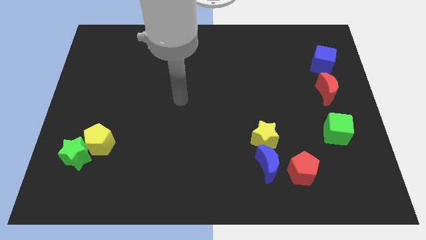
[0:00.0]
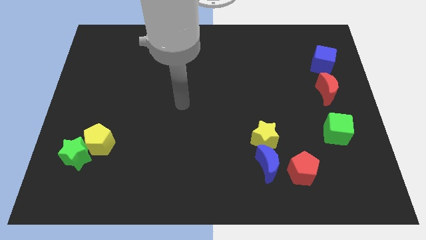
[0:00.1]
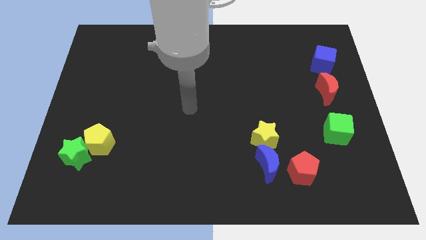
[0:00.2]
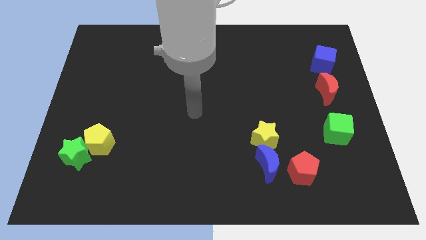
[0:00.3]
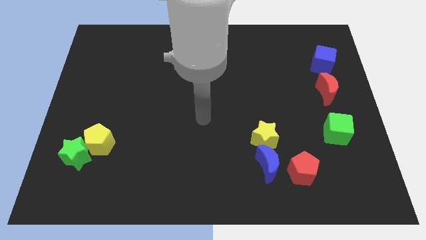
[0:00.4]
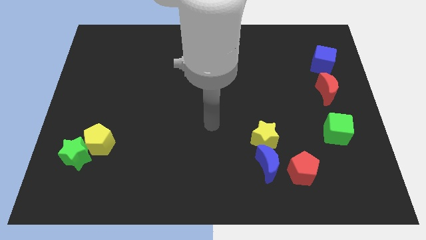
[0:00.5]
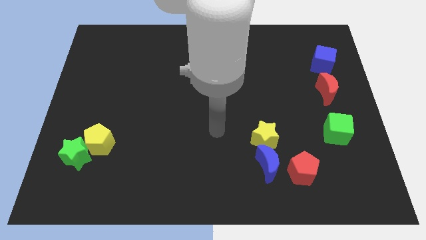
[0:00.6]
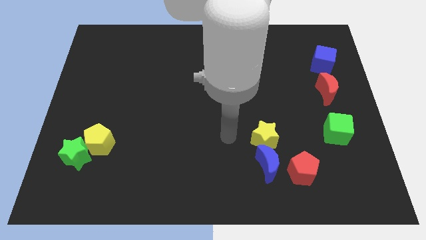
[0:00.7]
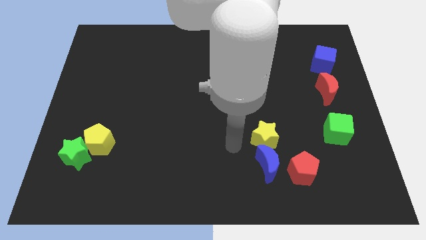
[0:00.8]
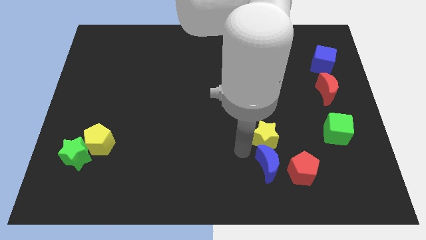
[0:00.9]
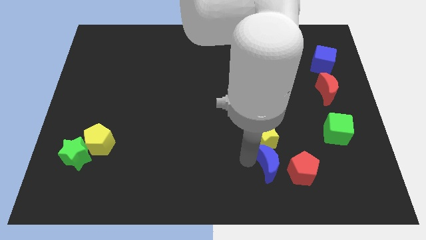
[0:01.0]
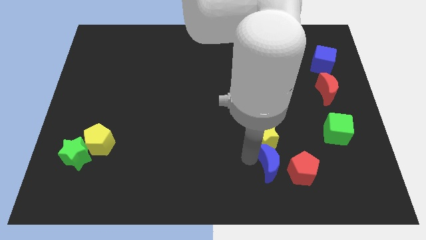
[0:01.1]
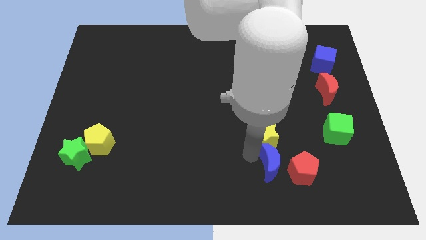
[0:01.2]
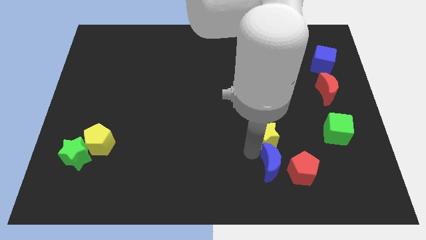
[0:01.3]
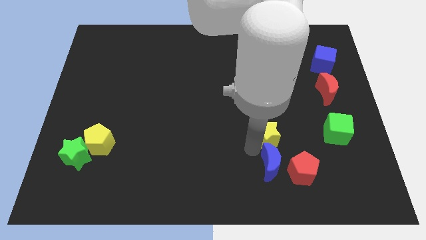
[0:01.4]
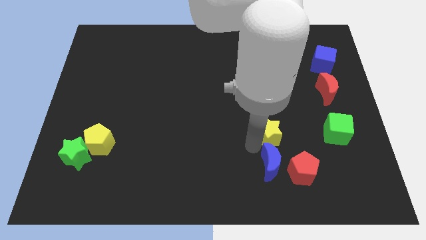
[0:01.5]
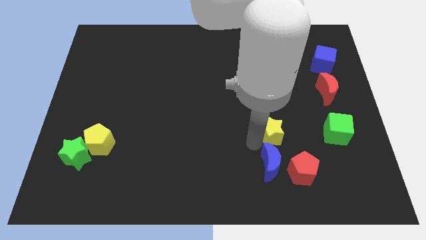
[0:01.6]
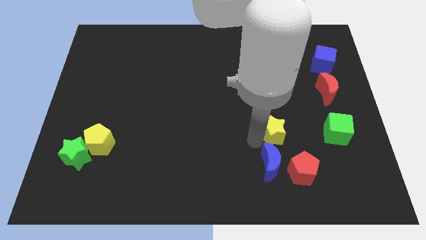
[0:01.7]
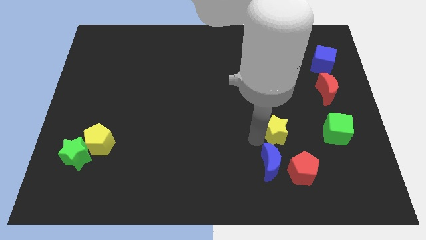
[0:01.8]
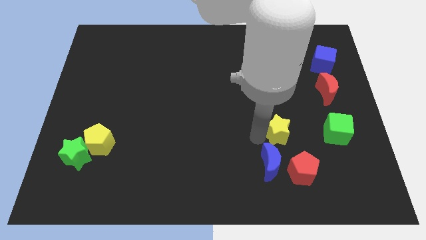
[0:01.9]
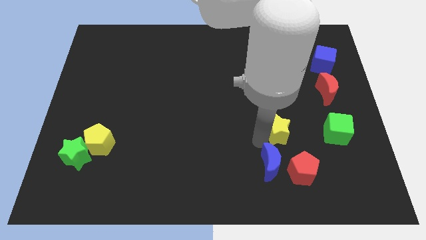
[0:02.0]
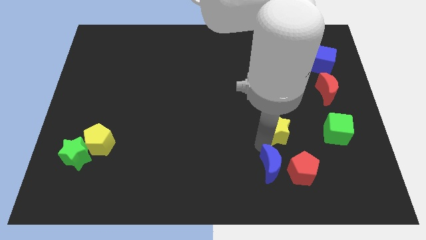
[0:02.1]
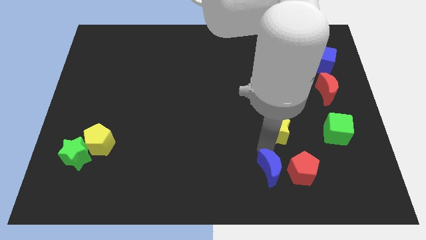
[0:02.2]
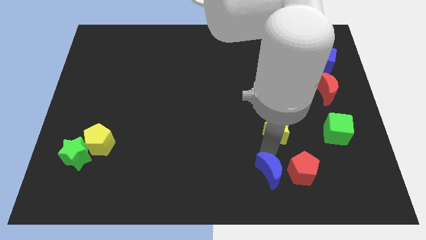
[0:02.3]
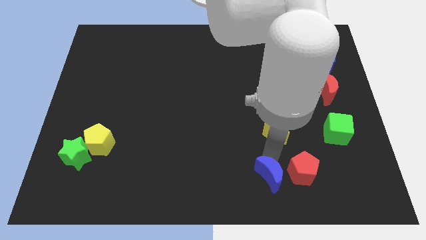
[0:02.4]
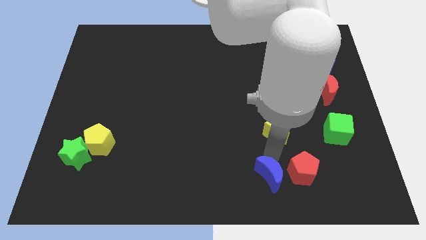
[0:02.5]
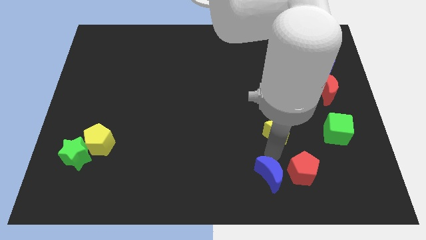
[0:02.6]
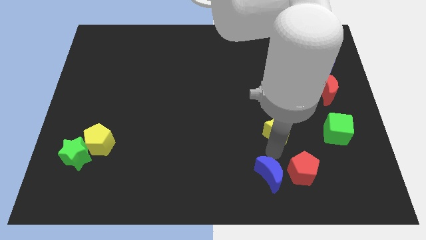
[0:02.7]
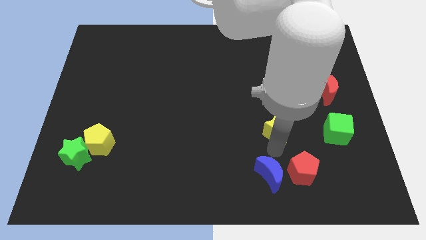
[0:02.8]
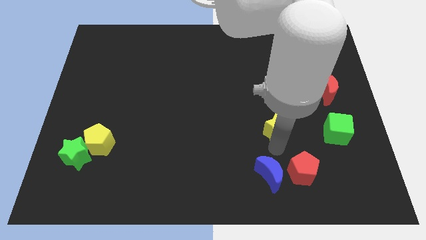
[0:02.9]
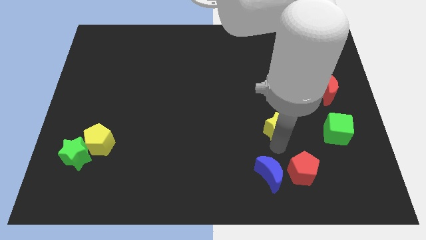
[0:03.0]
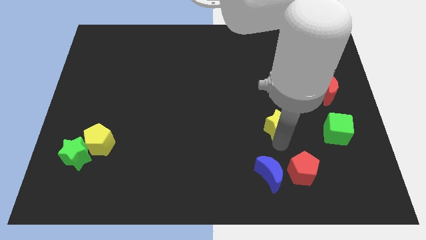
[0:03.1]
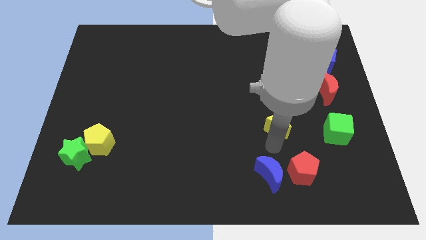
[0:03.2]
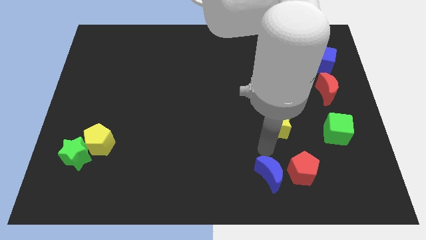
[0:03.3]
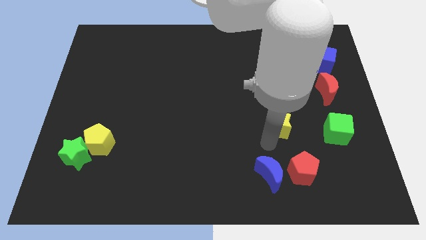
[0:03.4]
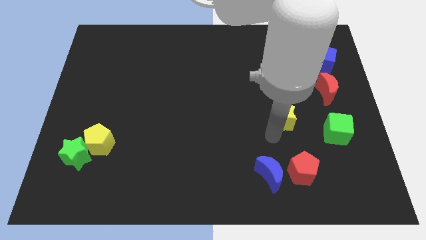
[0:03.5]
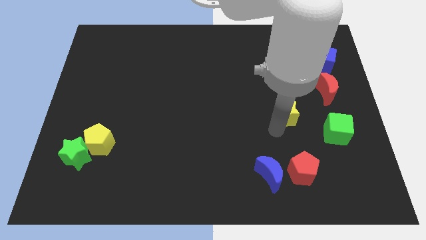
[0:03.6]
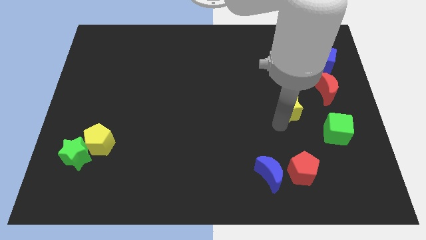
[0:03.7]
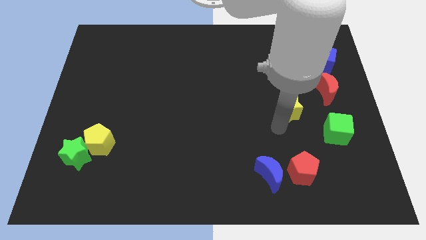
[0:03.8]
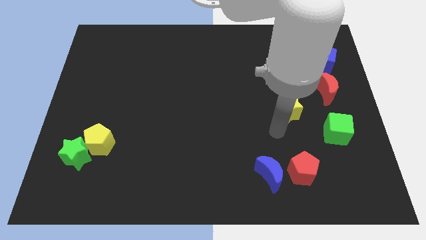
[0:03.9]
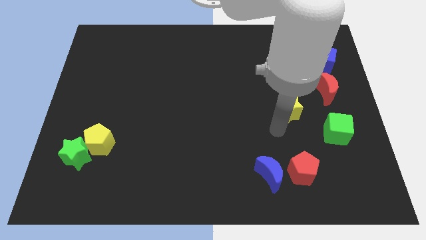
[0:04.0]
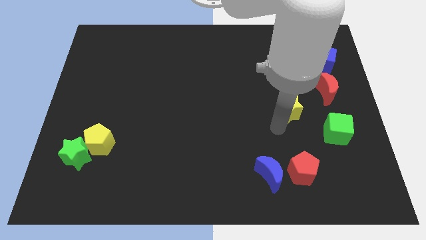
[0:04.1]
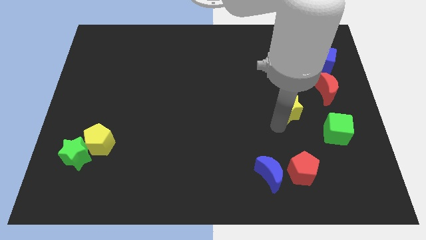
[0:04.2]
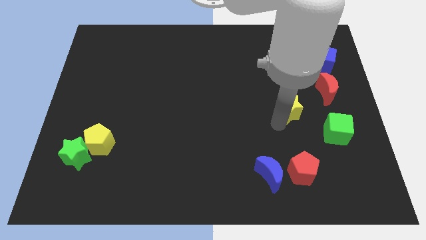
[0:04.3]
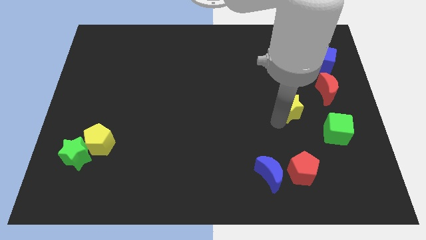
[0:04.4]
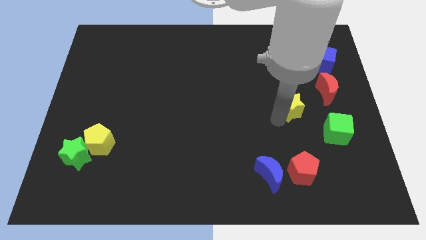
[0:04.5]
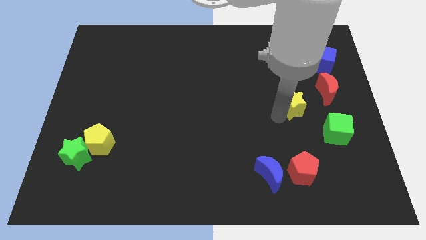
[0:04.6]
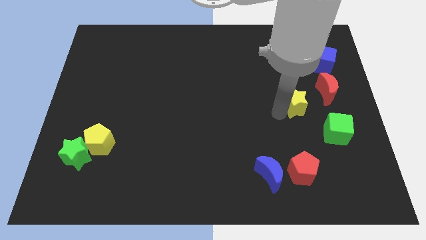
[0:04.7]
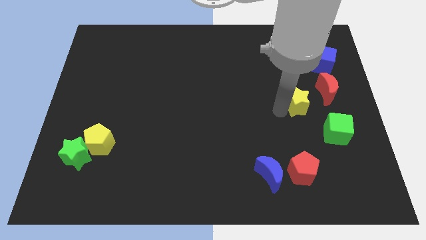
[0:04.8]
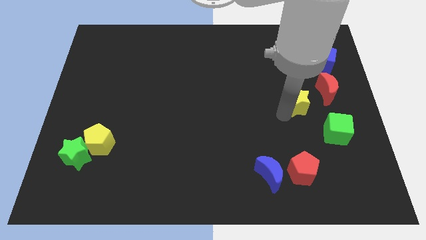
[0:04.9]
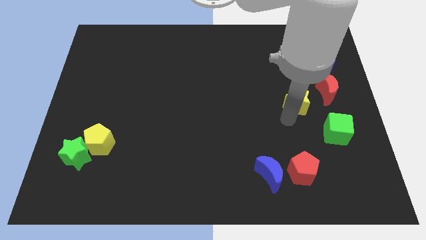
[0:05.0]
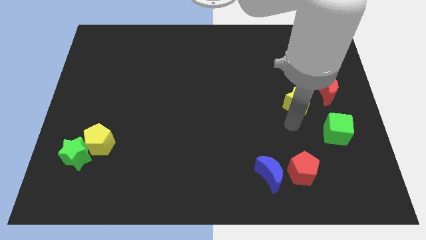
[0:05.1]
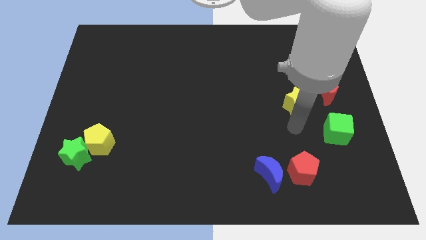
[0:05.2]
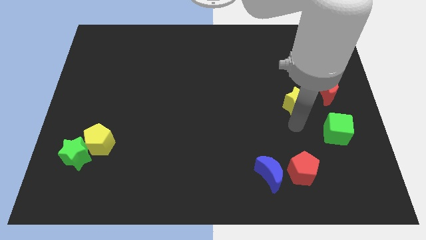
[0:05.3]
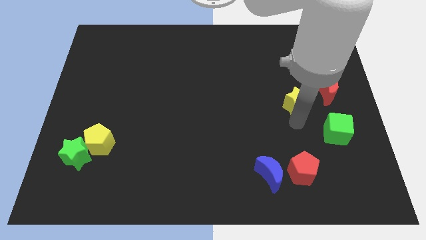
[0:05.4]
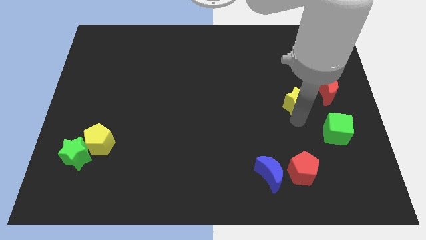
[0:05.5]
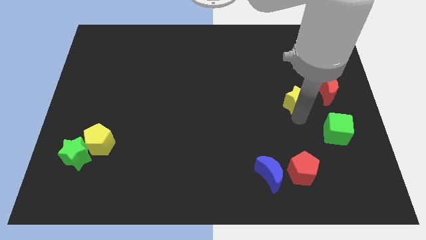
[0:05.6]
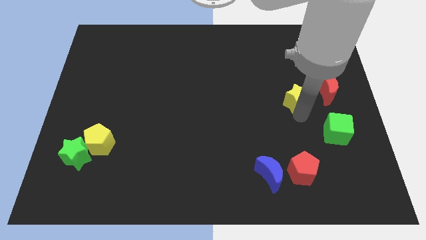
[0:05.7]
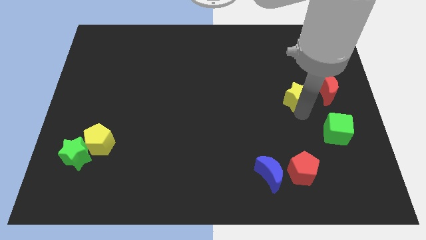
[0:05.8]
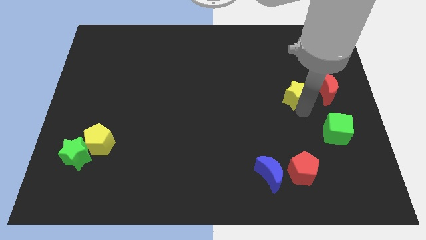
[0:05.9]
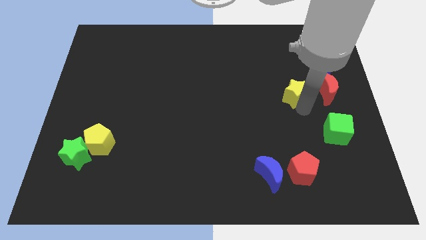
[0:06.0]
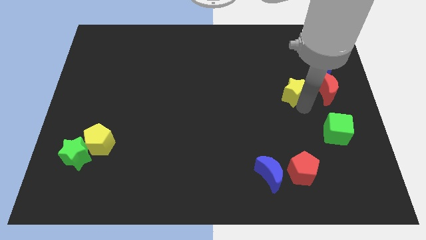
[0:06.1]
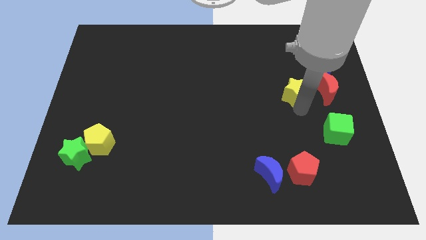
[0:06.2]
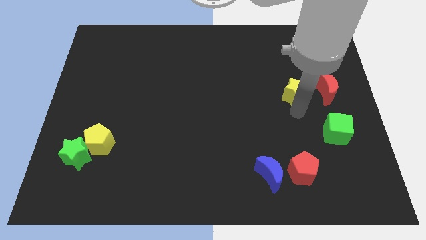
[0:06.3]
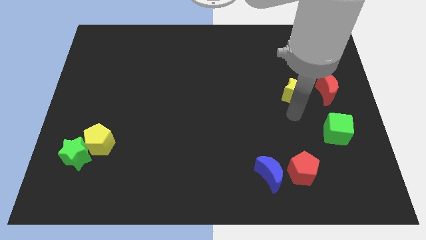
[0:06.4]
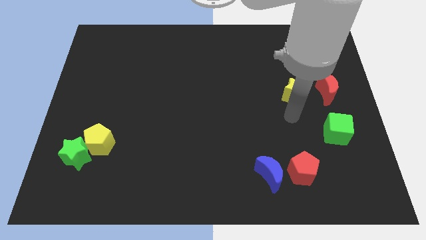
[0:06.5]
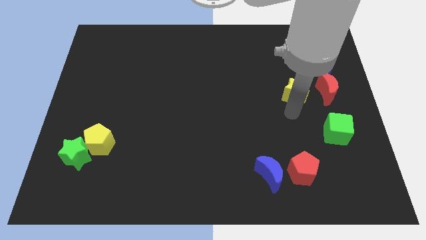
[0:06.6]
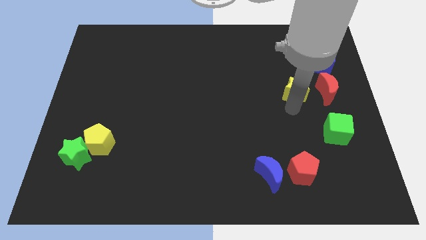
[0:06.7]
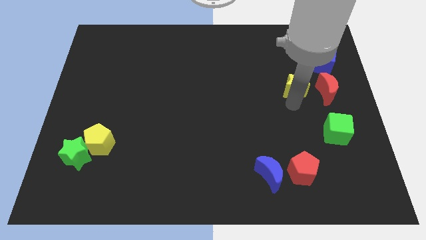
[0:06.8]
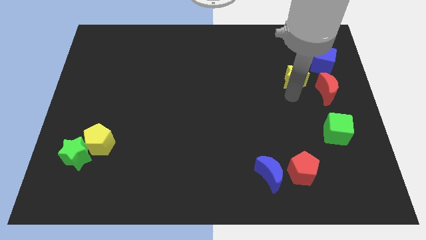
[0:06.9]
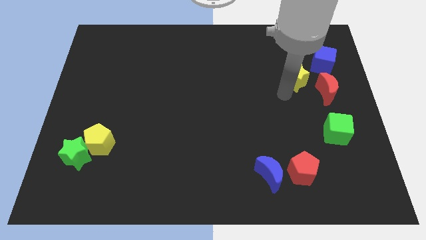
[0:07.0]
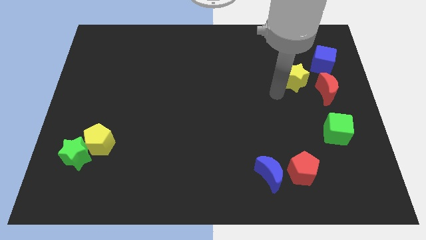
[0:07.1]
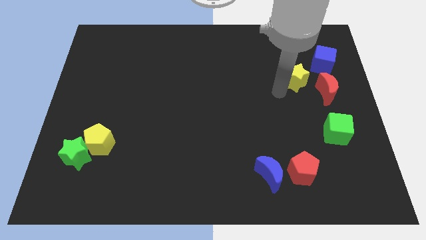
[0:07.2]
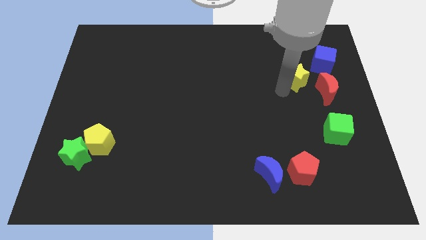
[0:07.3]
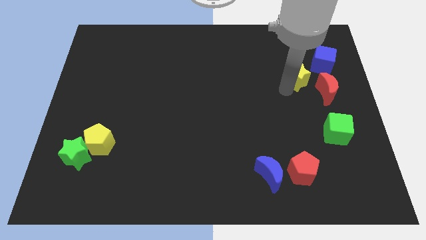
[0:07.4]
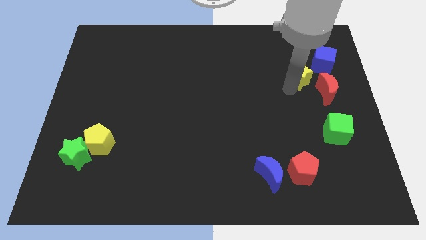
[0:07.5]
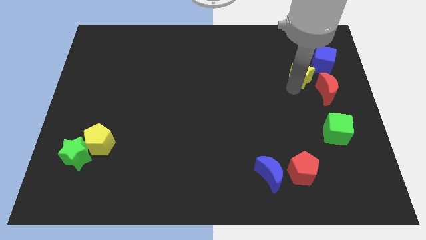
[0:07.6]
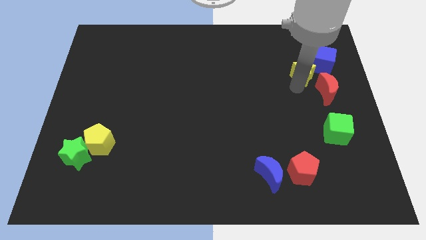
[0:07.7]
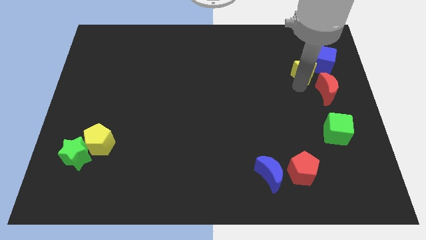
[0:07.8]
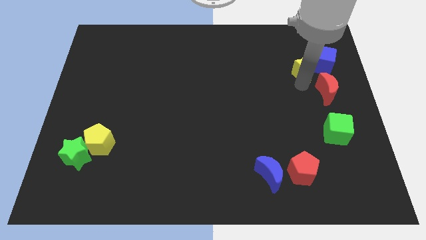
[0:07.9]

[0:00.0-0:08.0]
slide the yellow star close to the blue cube

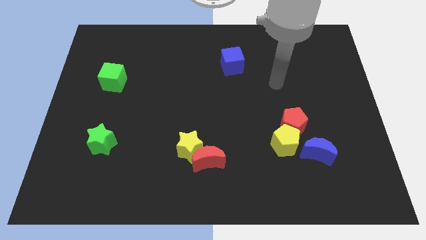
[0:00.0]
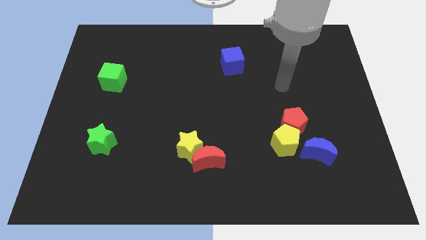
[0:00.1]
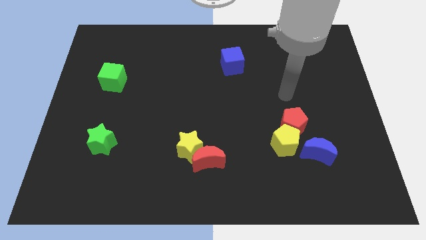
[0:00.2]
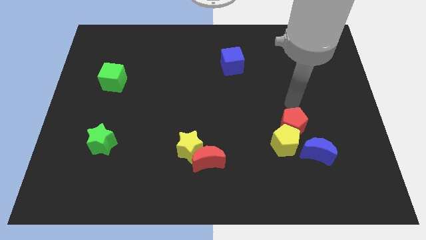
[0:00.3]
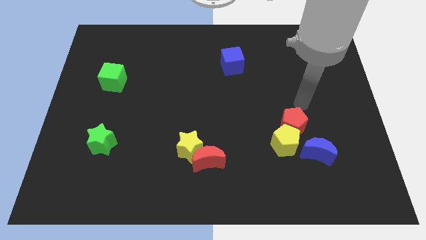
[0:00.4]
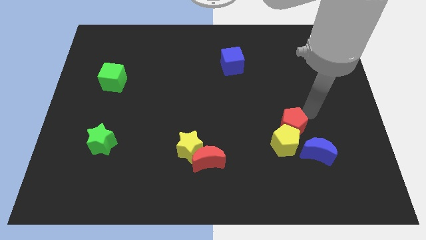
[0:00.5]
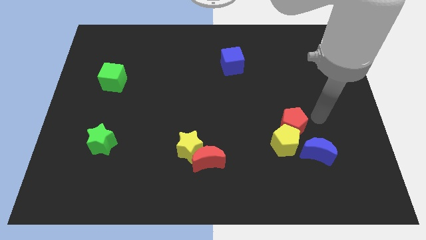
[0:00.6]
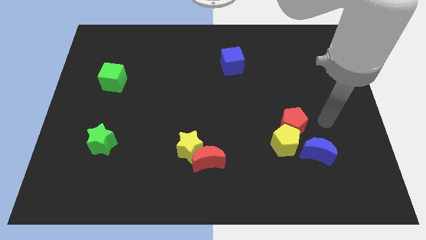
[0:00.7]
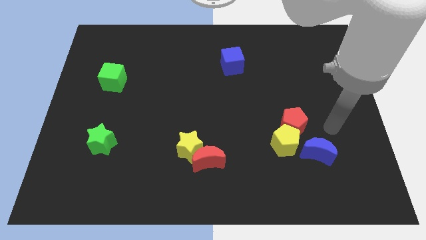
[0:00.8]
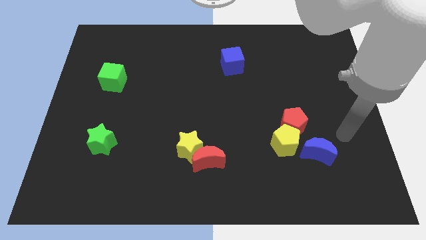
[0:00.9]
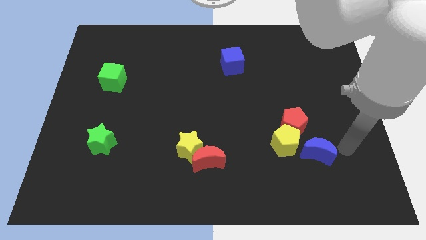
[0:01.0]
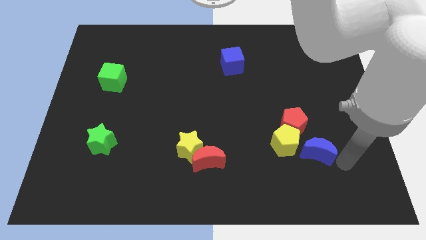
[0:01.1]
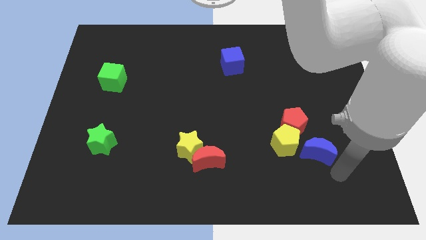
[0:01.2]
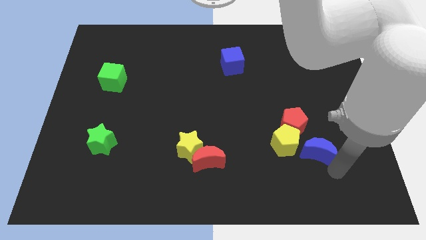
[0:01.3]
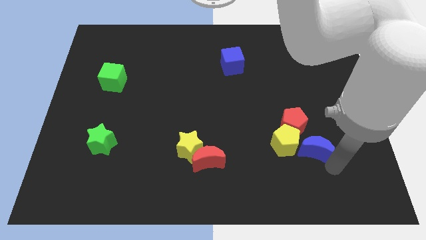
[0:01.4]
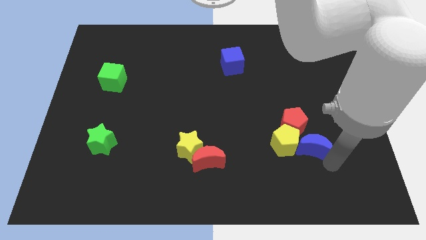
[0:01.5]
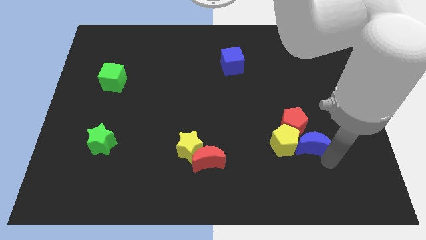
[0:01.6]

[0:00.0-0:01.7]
push the blue moon close to the red pentagon
